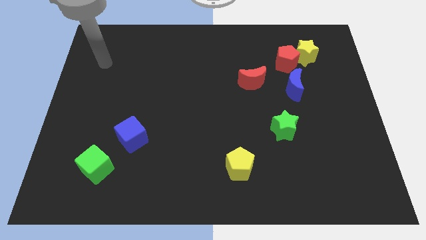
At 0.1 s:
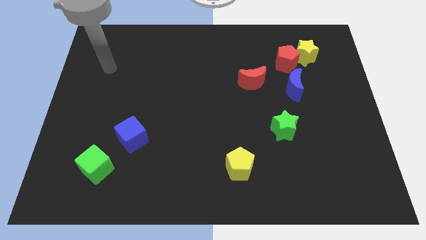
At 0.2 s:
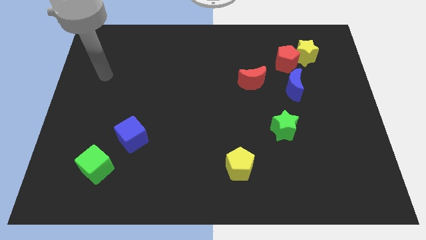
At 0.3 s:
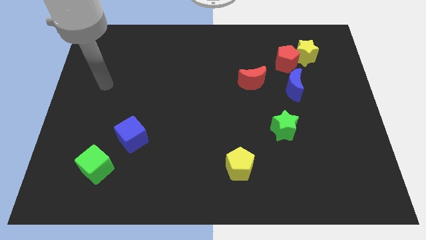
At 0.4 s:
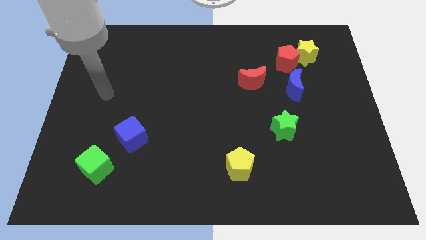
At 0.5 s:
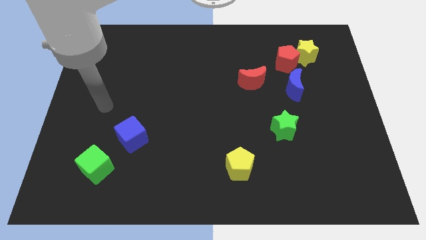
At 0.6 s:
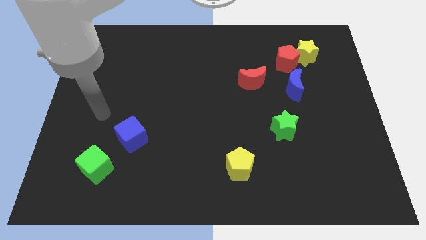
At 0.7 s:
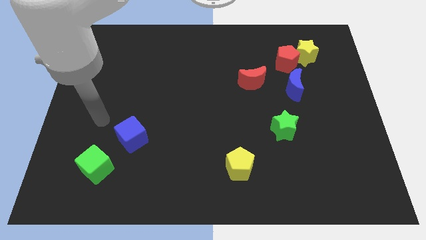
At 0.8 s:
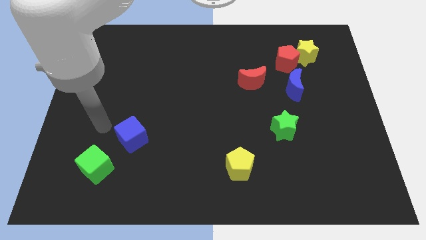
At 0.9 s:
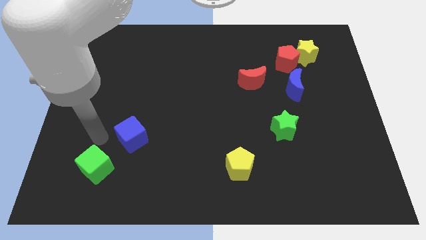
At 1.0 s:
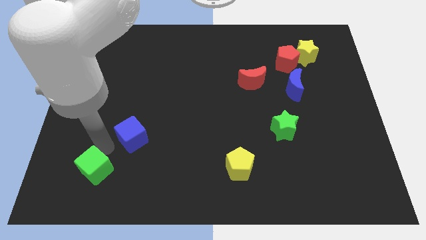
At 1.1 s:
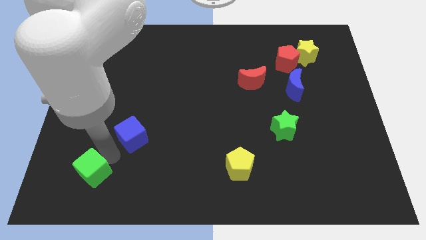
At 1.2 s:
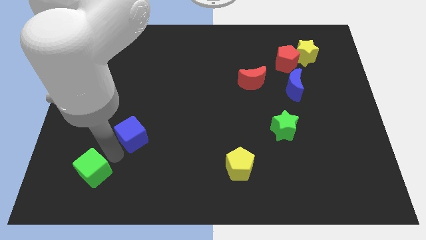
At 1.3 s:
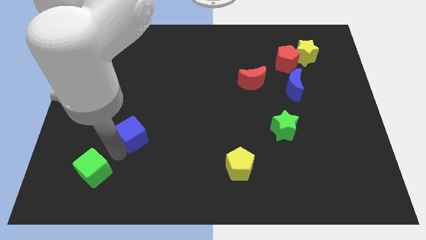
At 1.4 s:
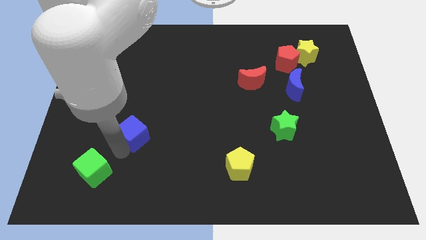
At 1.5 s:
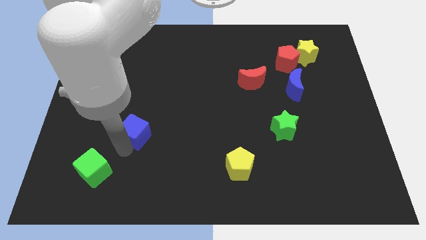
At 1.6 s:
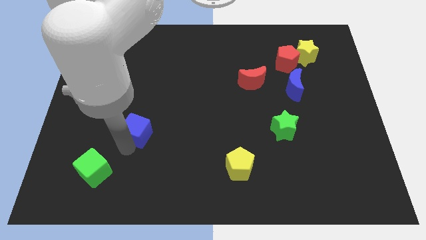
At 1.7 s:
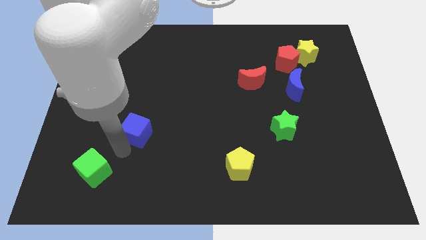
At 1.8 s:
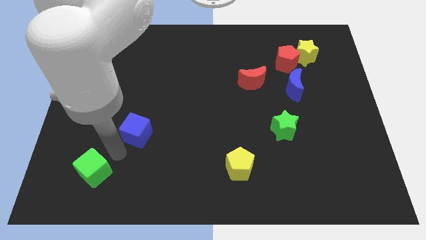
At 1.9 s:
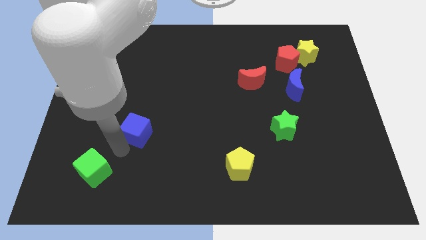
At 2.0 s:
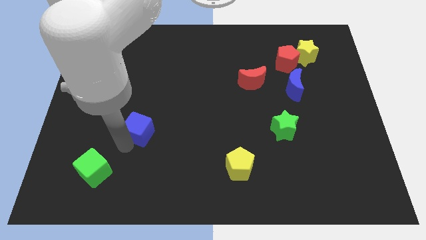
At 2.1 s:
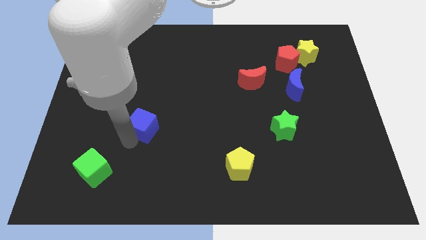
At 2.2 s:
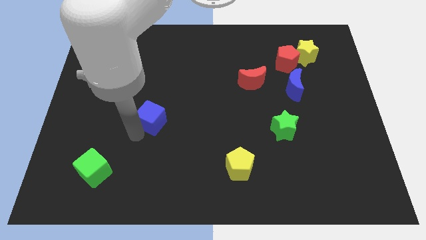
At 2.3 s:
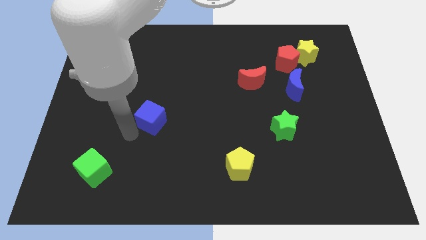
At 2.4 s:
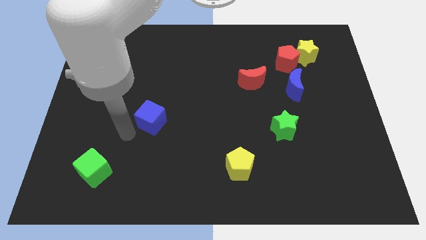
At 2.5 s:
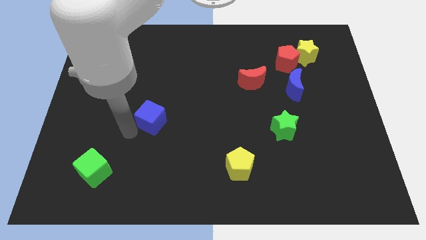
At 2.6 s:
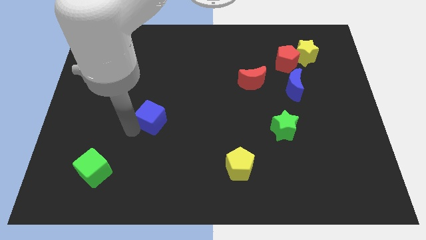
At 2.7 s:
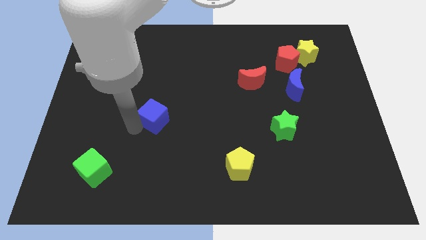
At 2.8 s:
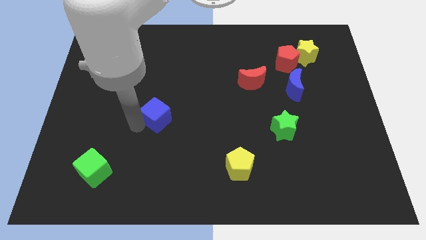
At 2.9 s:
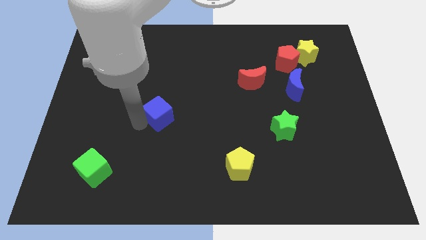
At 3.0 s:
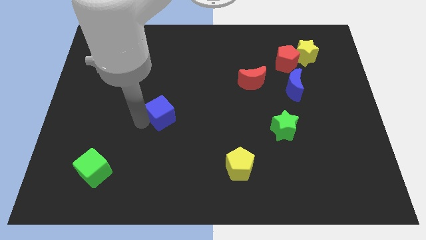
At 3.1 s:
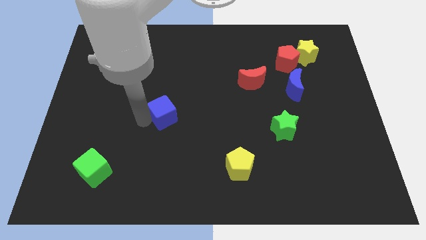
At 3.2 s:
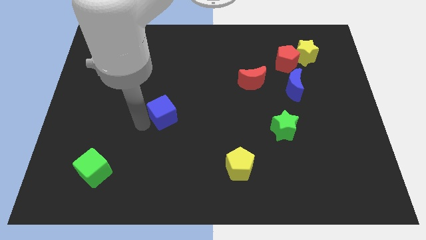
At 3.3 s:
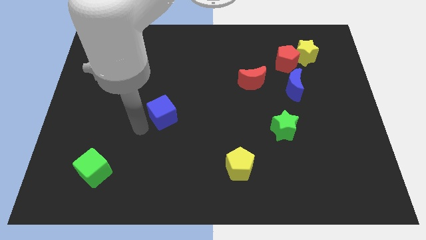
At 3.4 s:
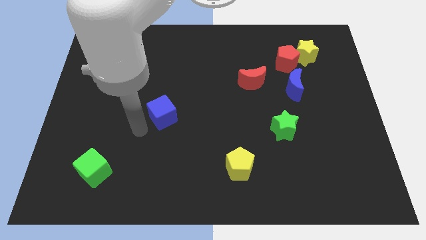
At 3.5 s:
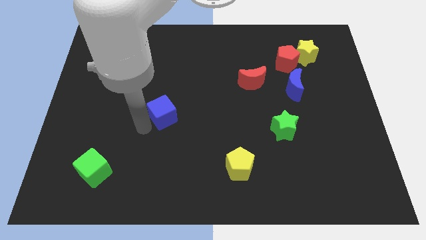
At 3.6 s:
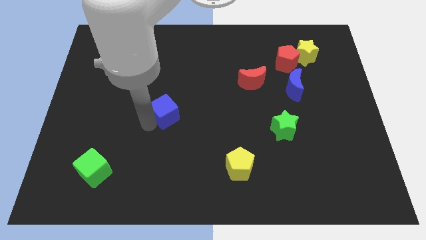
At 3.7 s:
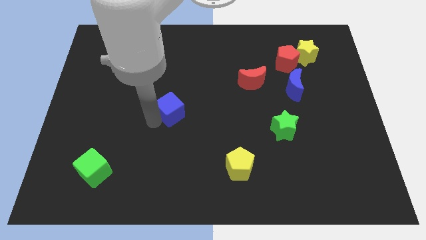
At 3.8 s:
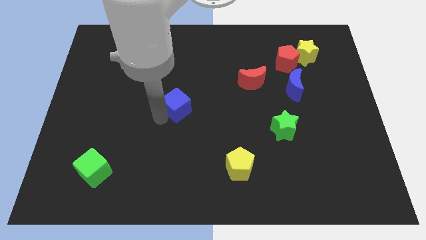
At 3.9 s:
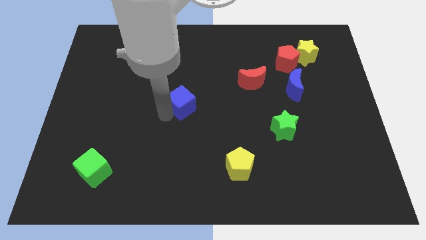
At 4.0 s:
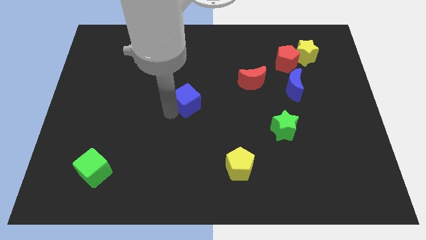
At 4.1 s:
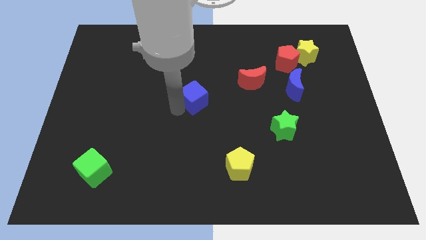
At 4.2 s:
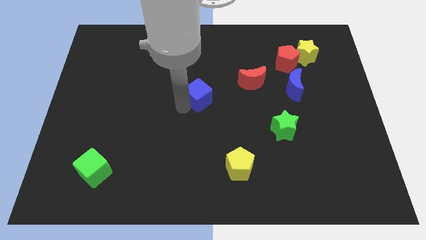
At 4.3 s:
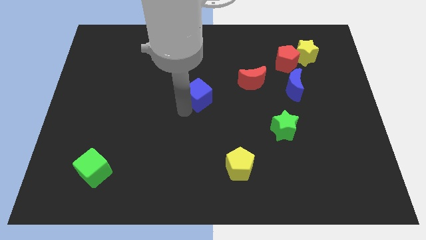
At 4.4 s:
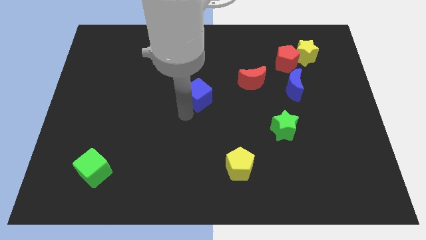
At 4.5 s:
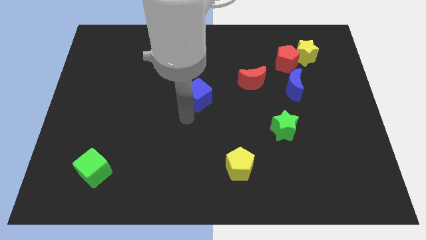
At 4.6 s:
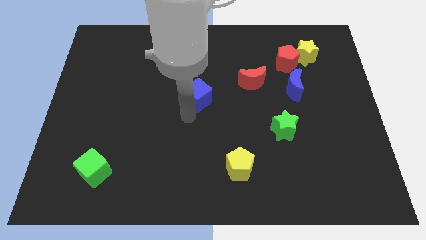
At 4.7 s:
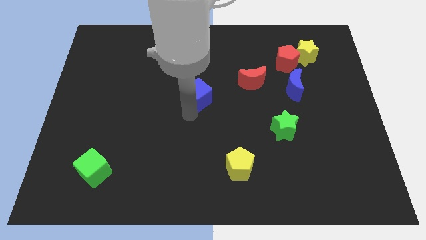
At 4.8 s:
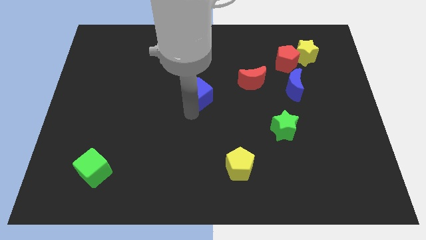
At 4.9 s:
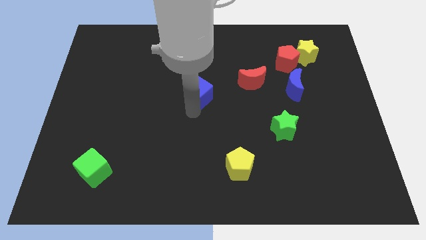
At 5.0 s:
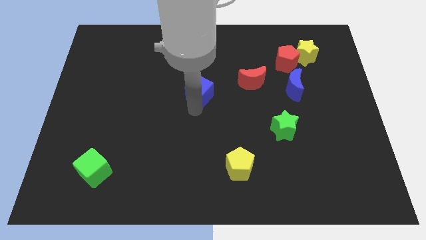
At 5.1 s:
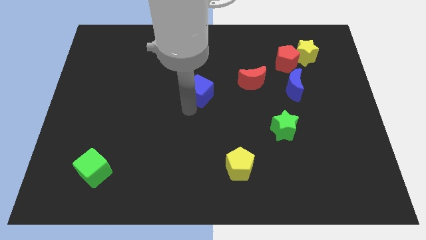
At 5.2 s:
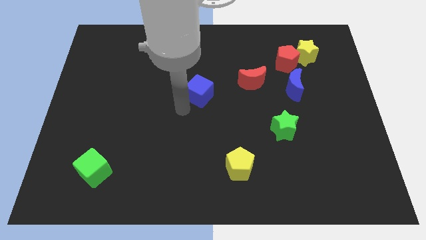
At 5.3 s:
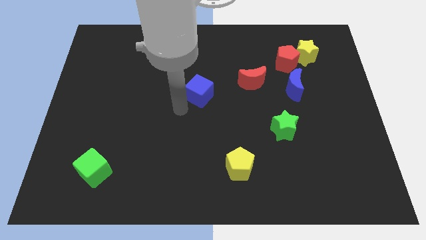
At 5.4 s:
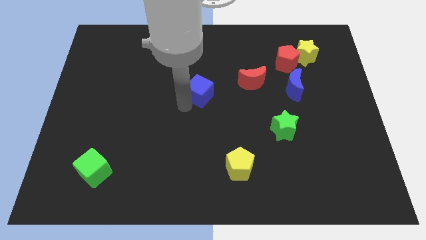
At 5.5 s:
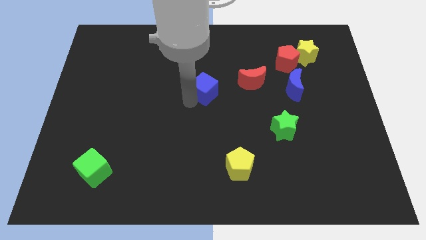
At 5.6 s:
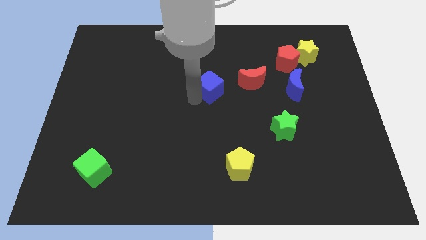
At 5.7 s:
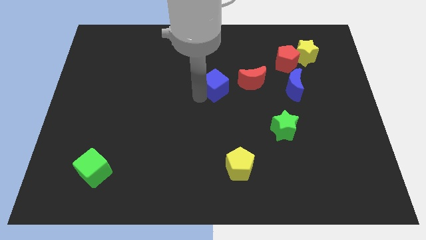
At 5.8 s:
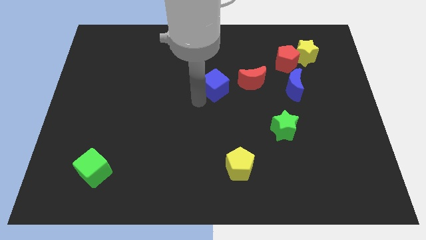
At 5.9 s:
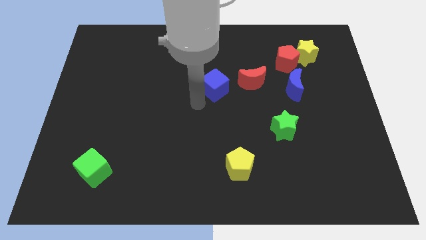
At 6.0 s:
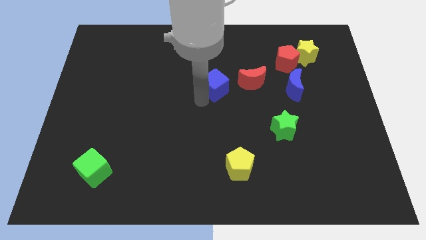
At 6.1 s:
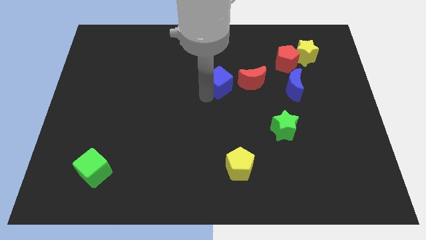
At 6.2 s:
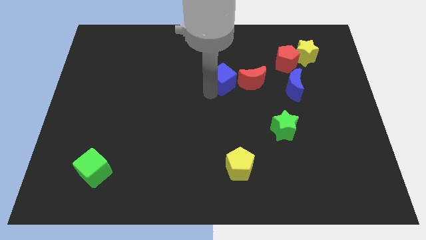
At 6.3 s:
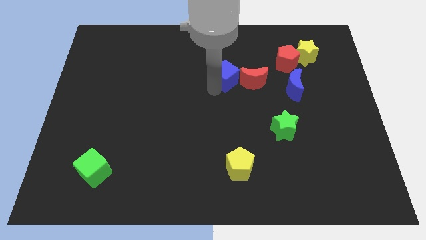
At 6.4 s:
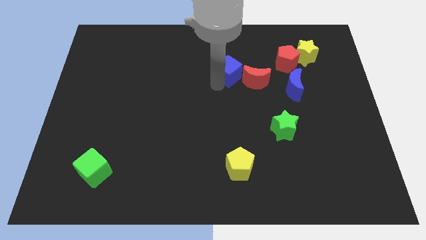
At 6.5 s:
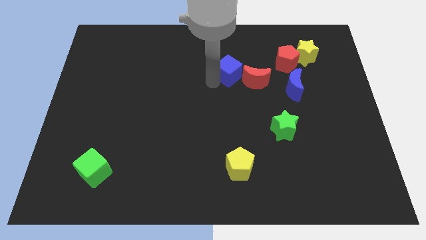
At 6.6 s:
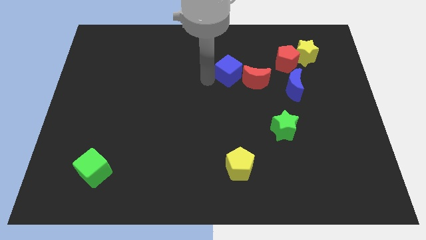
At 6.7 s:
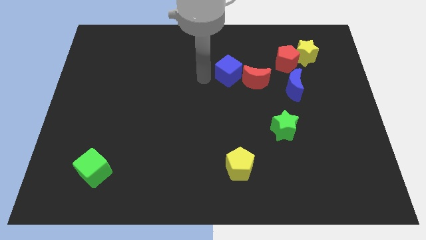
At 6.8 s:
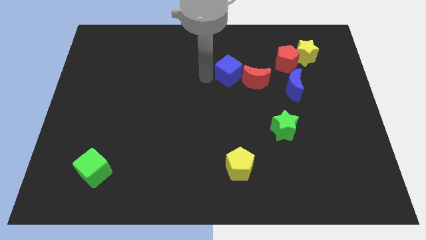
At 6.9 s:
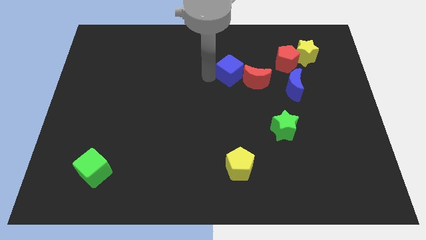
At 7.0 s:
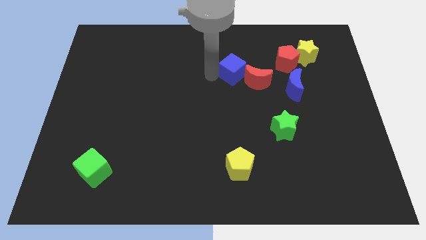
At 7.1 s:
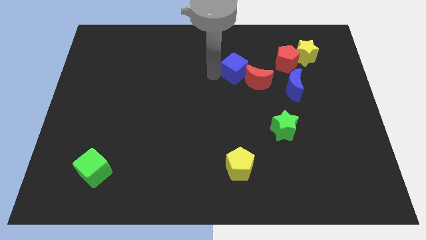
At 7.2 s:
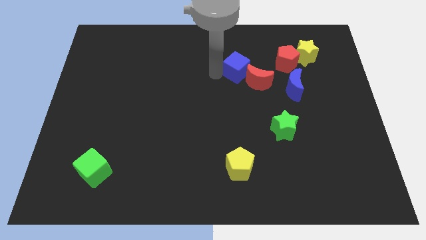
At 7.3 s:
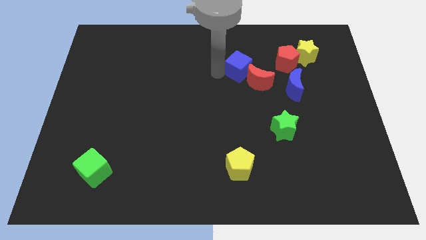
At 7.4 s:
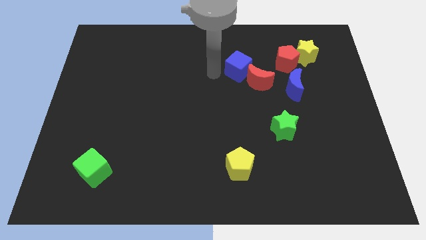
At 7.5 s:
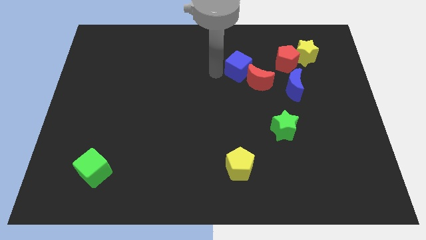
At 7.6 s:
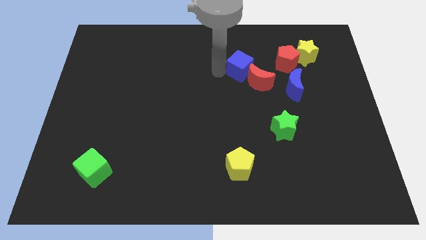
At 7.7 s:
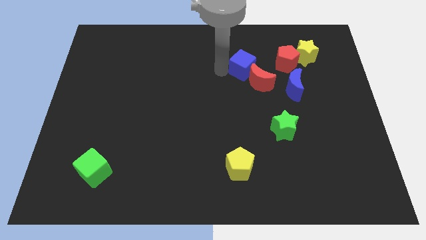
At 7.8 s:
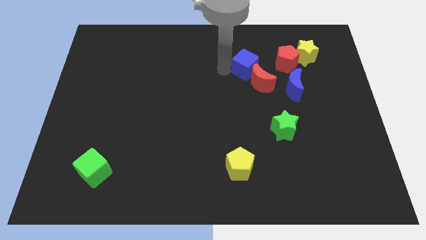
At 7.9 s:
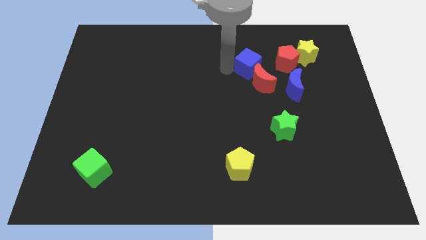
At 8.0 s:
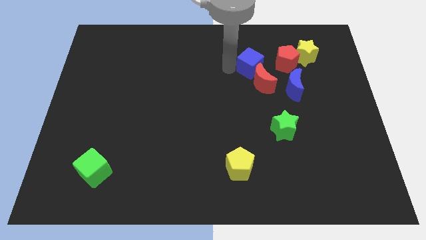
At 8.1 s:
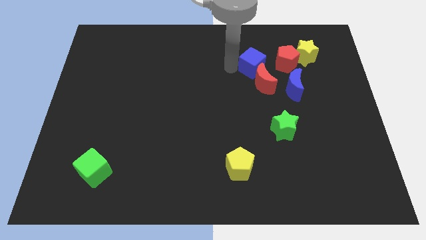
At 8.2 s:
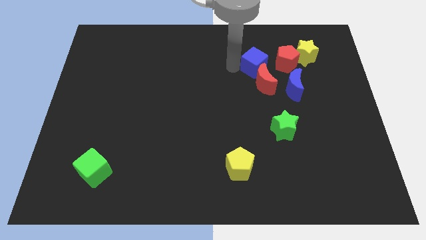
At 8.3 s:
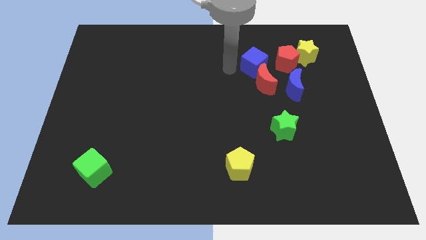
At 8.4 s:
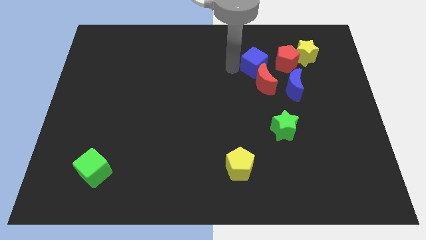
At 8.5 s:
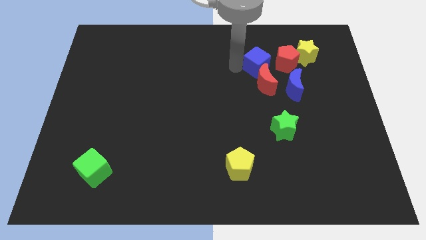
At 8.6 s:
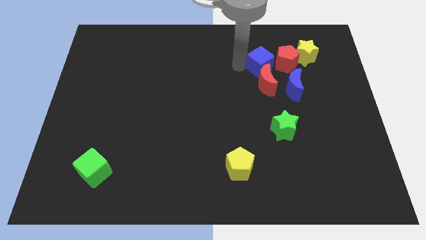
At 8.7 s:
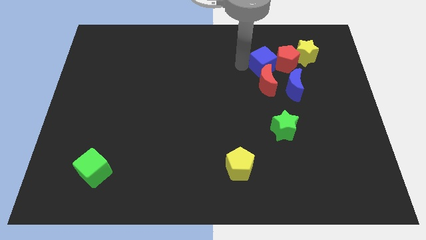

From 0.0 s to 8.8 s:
put the blue cube towards the red pentagon
